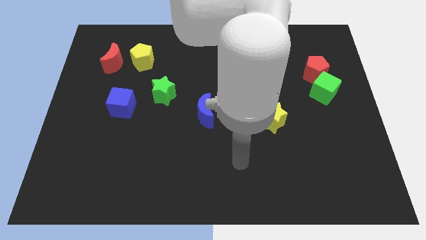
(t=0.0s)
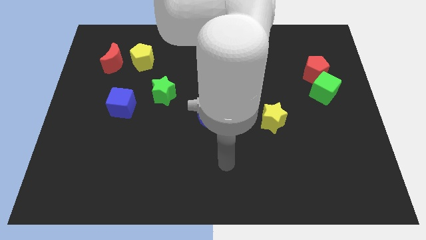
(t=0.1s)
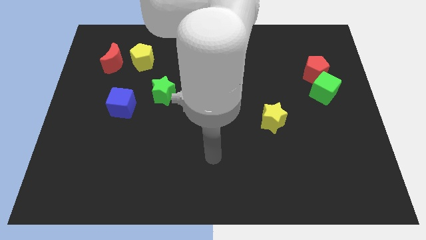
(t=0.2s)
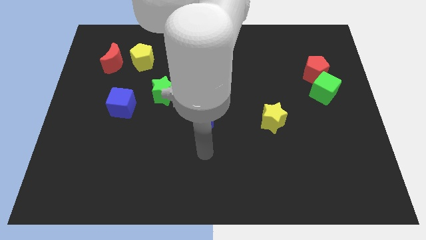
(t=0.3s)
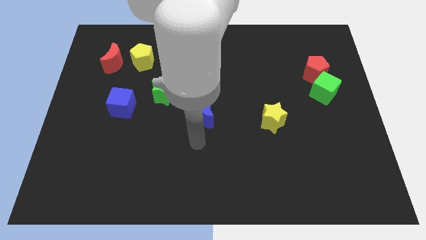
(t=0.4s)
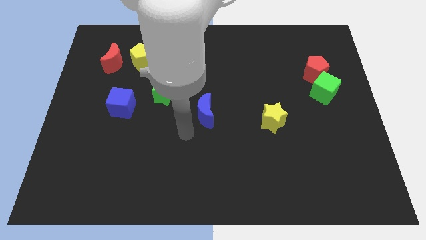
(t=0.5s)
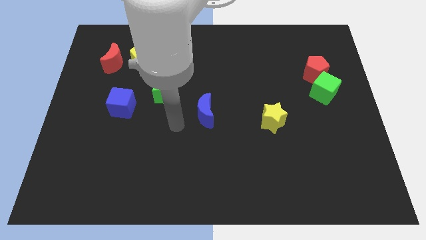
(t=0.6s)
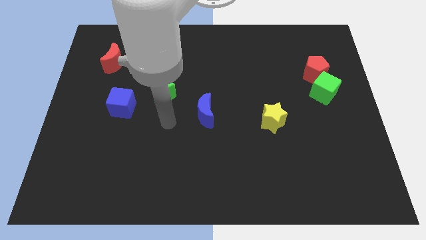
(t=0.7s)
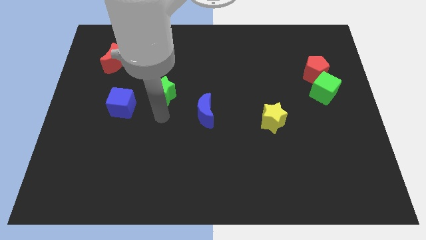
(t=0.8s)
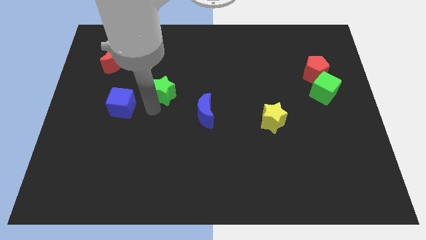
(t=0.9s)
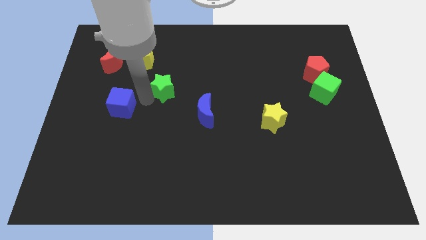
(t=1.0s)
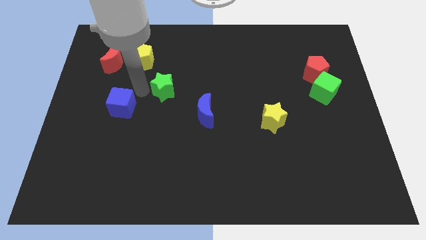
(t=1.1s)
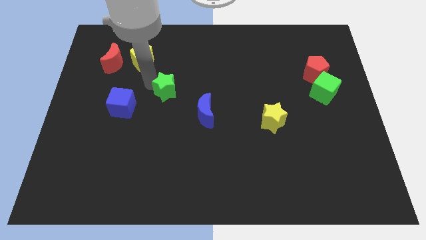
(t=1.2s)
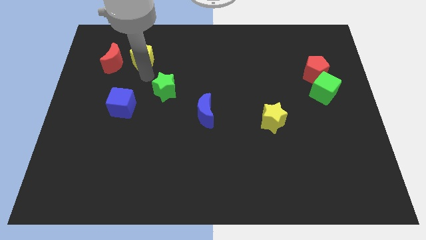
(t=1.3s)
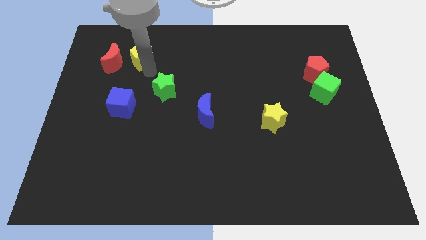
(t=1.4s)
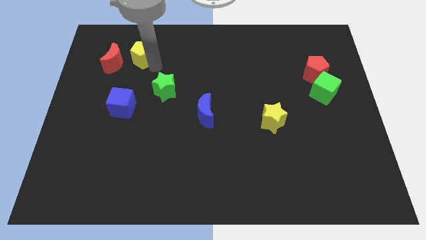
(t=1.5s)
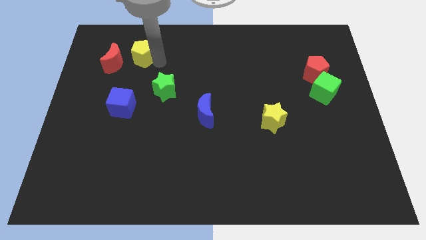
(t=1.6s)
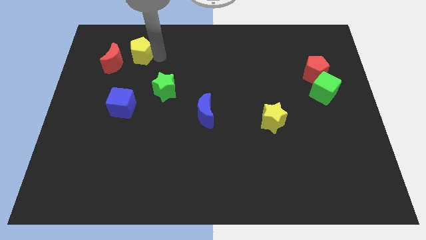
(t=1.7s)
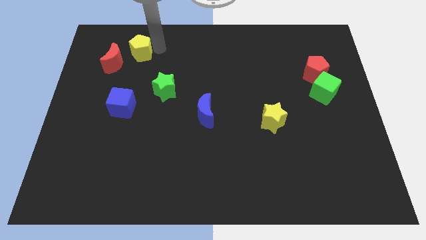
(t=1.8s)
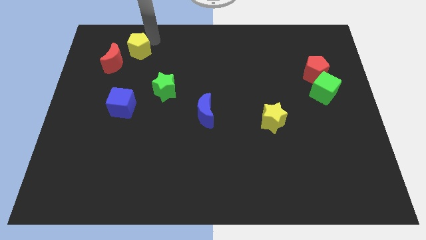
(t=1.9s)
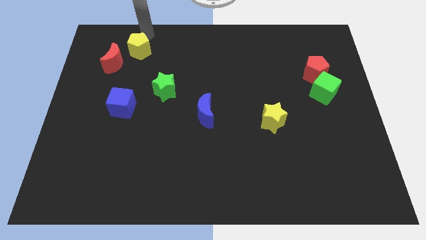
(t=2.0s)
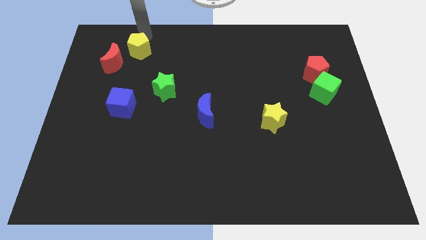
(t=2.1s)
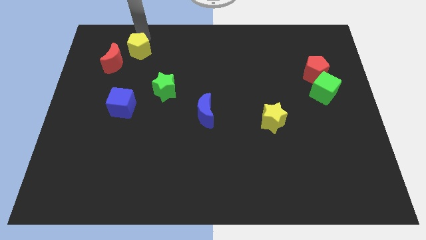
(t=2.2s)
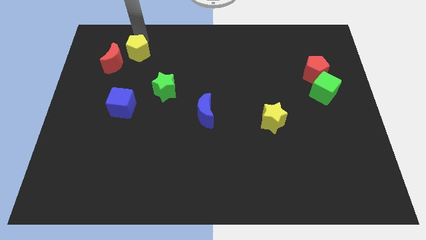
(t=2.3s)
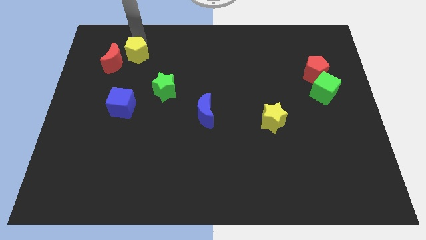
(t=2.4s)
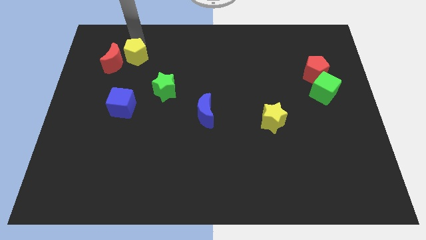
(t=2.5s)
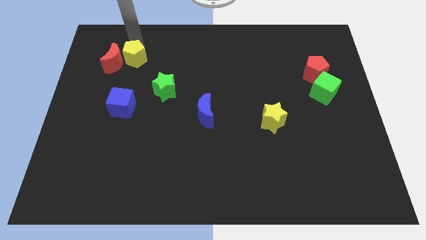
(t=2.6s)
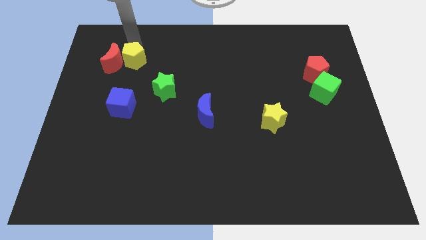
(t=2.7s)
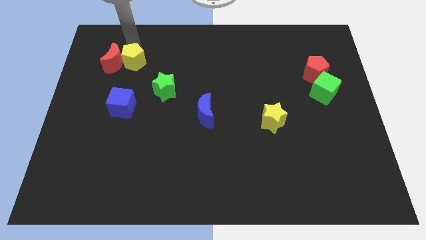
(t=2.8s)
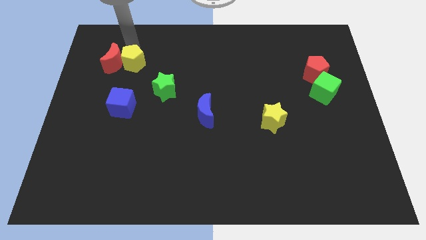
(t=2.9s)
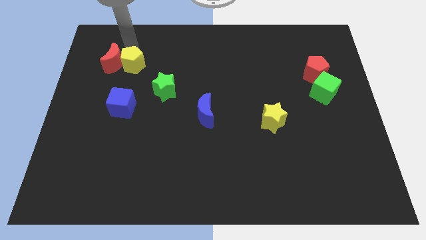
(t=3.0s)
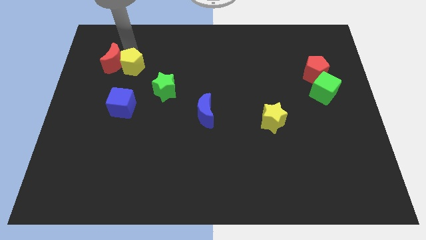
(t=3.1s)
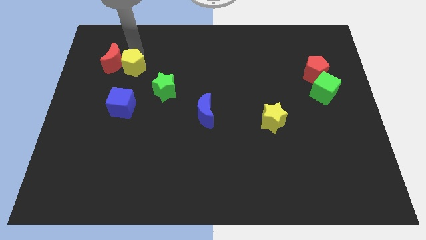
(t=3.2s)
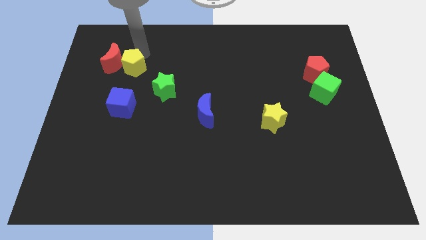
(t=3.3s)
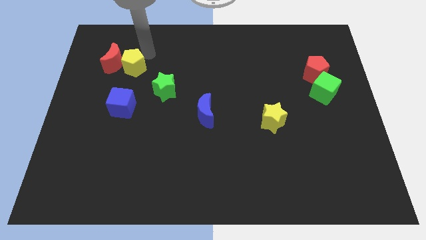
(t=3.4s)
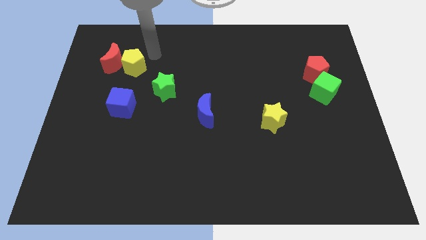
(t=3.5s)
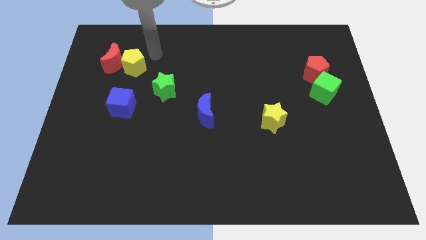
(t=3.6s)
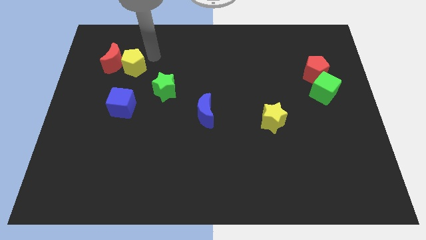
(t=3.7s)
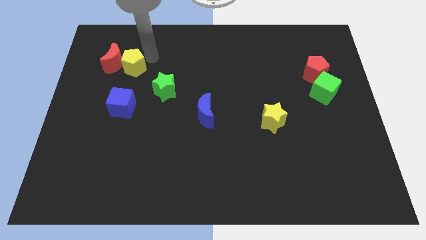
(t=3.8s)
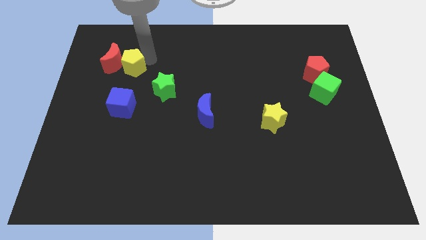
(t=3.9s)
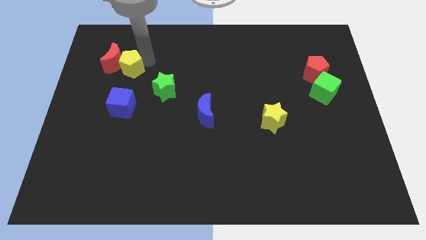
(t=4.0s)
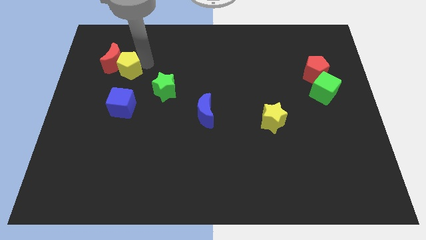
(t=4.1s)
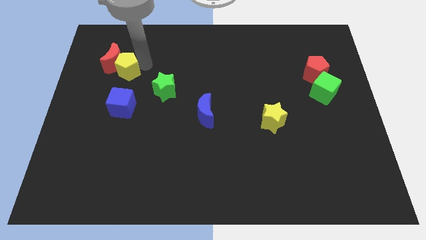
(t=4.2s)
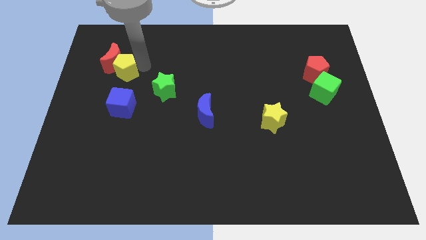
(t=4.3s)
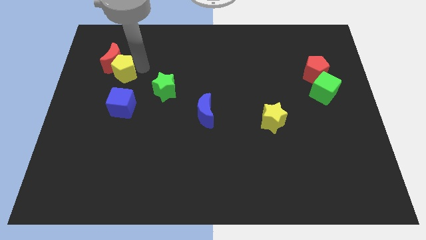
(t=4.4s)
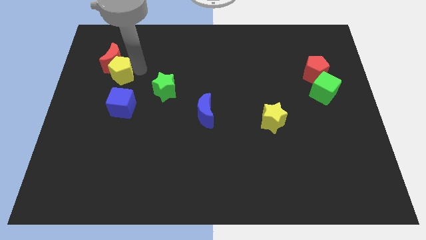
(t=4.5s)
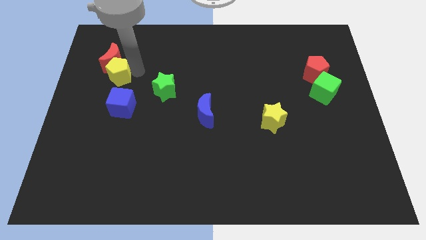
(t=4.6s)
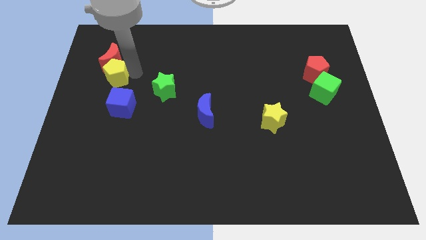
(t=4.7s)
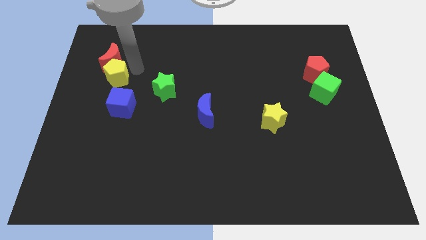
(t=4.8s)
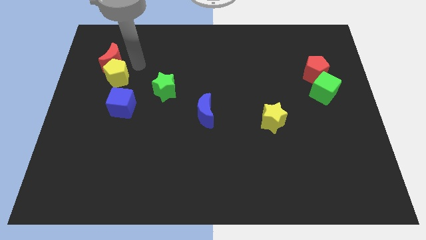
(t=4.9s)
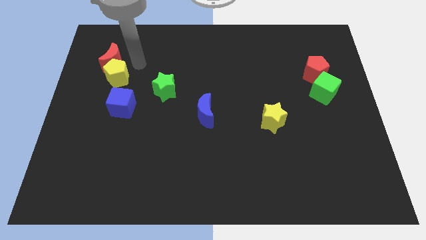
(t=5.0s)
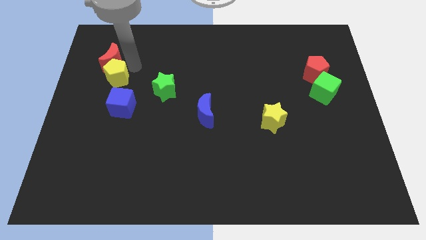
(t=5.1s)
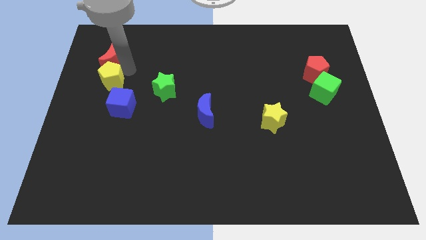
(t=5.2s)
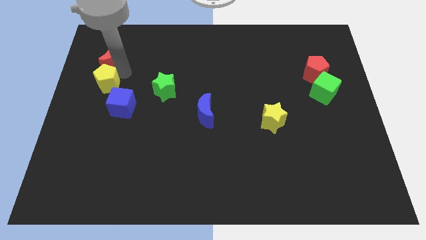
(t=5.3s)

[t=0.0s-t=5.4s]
move the yellow pentagon to the left side
